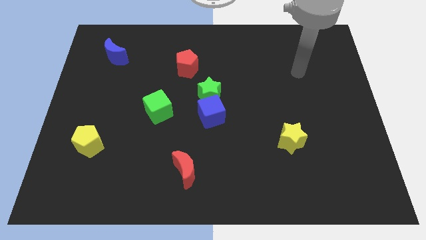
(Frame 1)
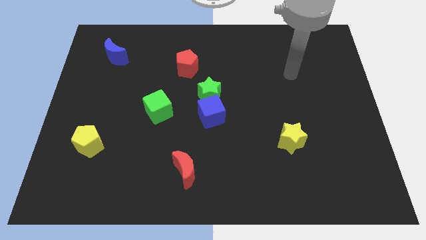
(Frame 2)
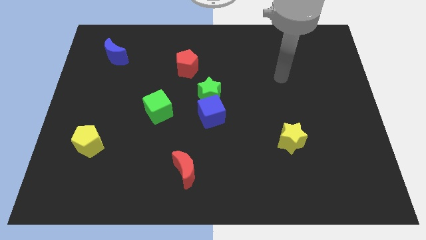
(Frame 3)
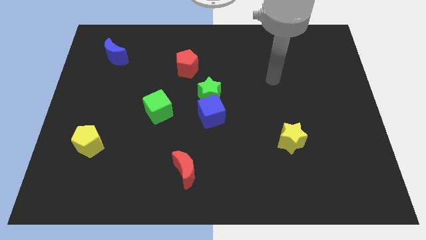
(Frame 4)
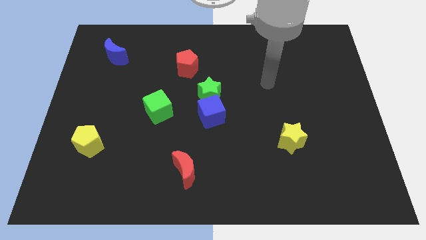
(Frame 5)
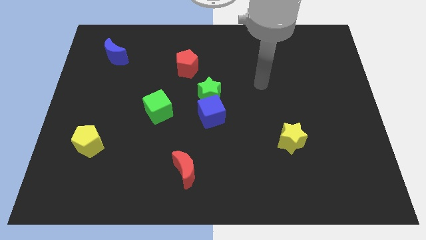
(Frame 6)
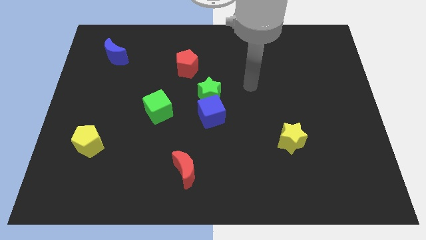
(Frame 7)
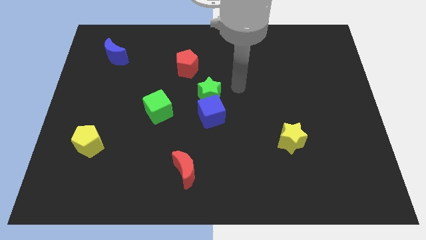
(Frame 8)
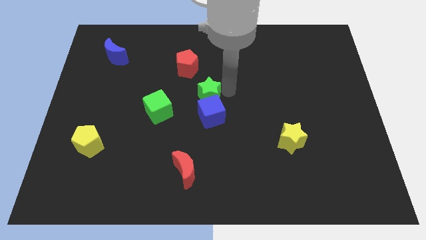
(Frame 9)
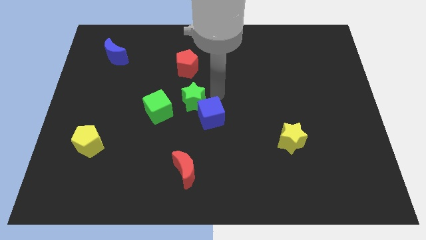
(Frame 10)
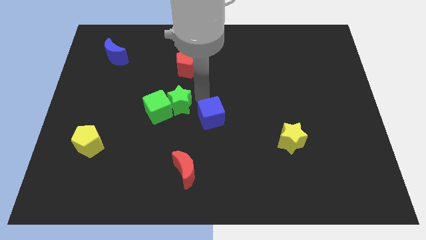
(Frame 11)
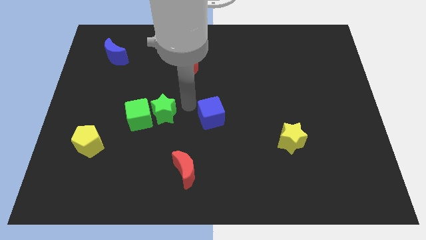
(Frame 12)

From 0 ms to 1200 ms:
separate the blue cube from the green star

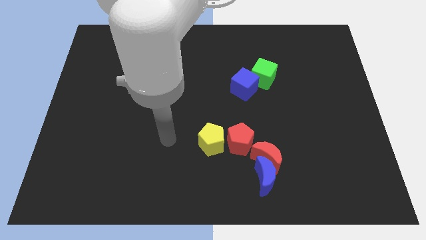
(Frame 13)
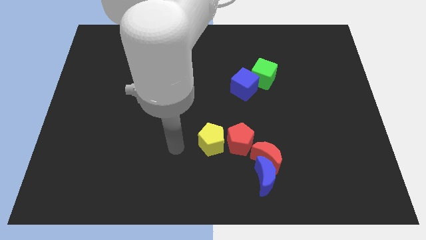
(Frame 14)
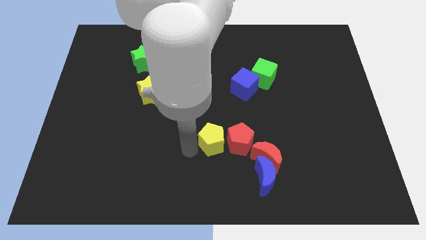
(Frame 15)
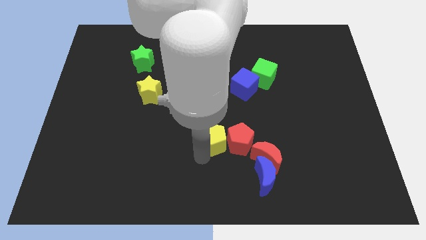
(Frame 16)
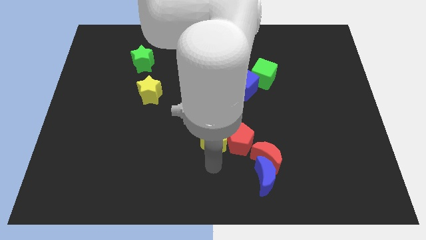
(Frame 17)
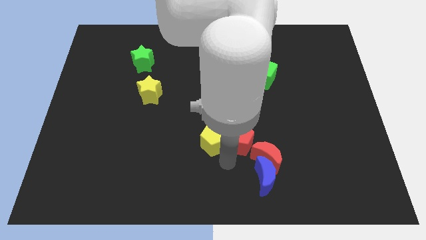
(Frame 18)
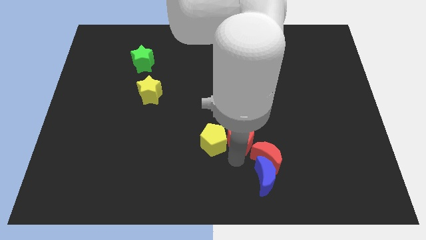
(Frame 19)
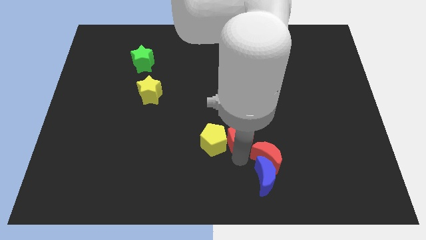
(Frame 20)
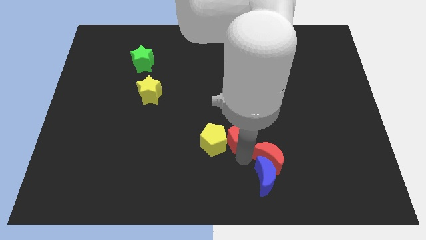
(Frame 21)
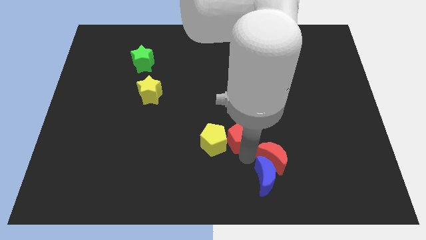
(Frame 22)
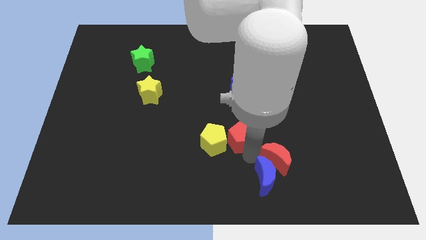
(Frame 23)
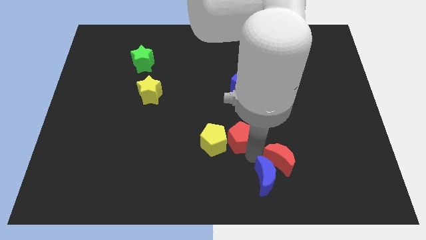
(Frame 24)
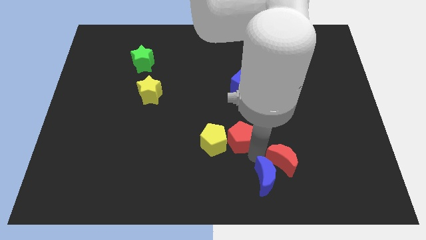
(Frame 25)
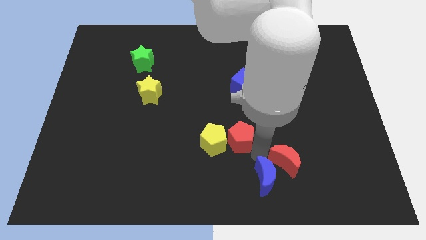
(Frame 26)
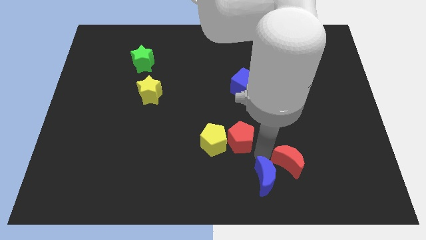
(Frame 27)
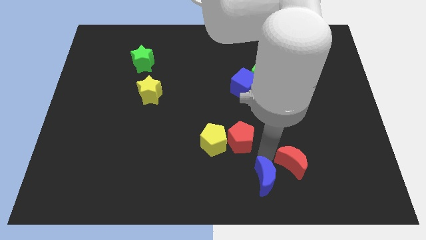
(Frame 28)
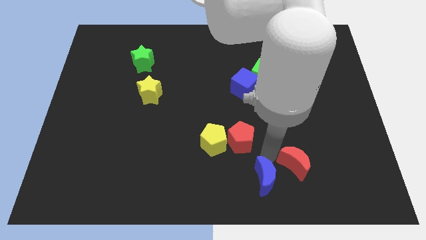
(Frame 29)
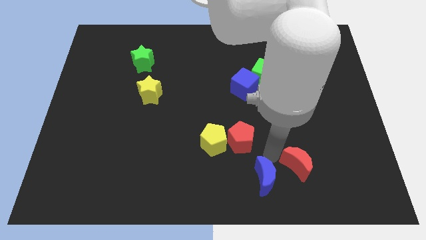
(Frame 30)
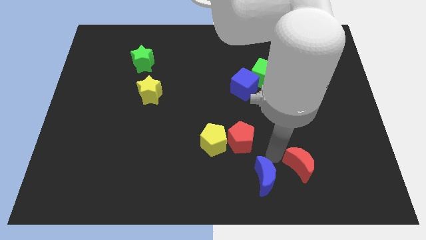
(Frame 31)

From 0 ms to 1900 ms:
separate the red moon from the blue moon and red pentagon

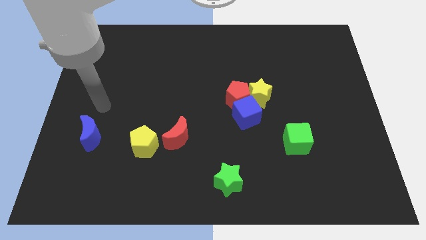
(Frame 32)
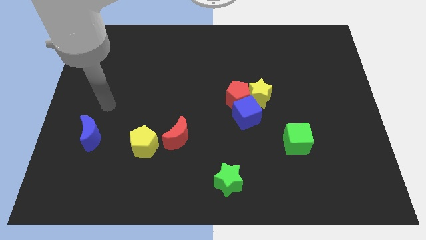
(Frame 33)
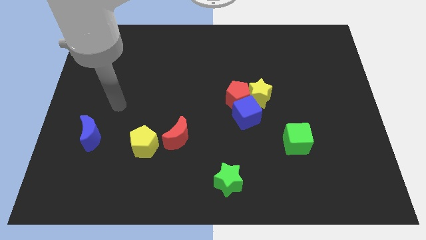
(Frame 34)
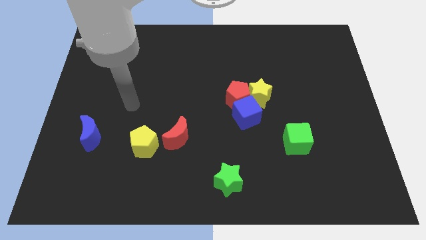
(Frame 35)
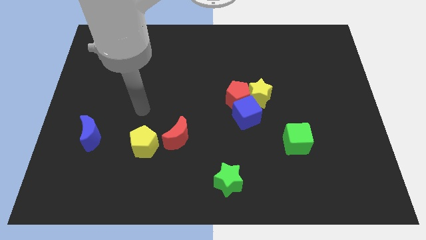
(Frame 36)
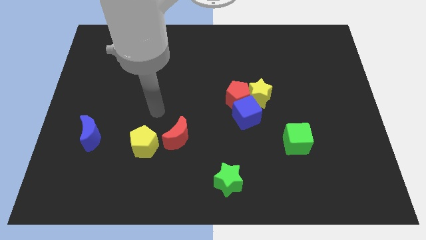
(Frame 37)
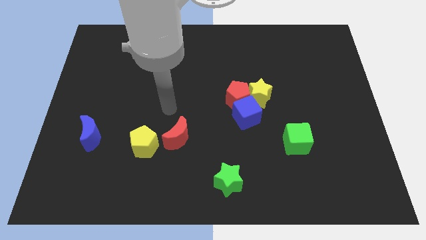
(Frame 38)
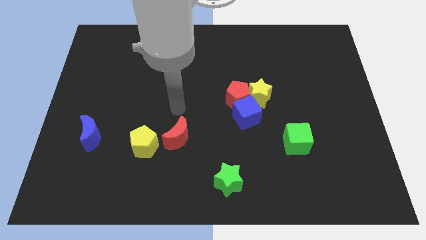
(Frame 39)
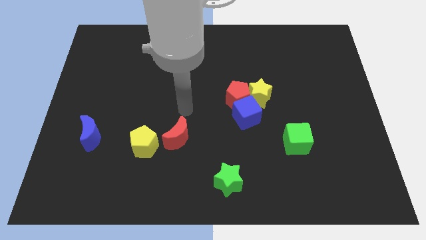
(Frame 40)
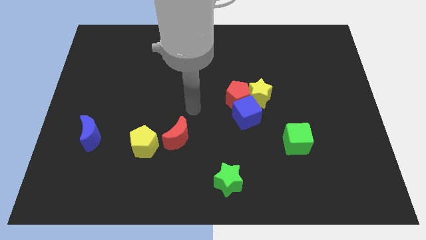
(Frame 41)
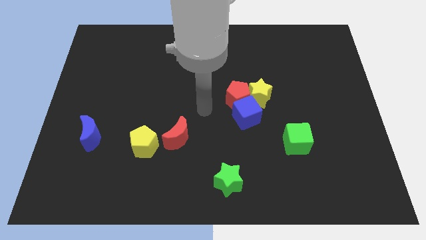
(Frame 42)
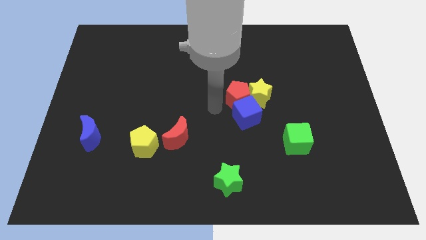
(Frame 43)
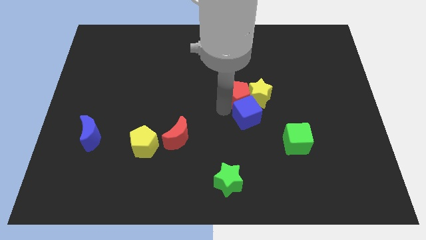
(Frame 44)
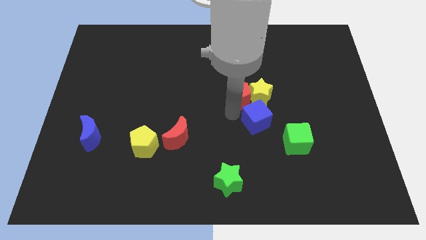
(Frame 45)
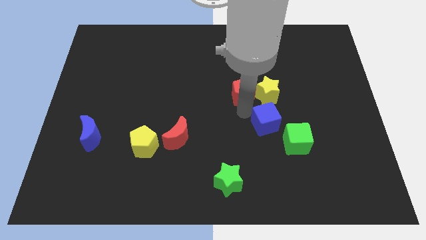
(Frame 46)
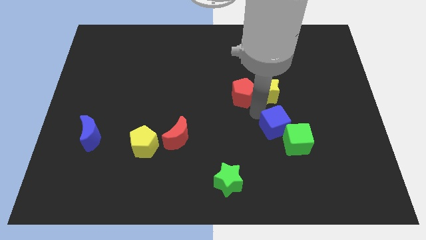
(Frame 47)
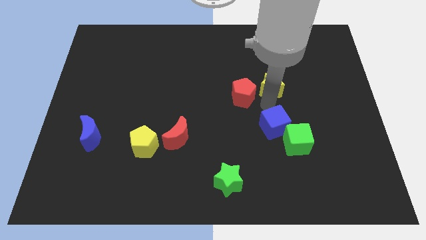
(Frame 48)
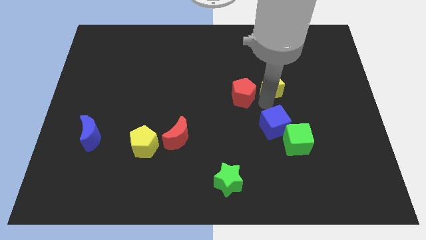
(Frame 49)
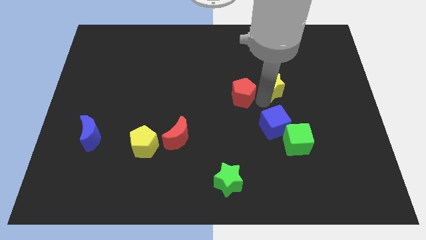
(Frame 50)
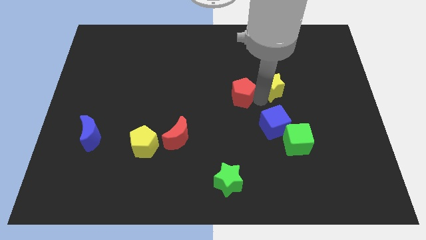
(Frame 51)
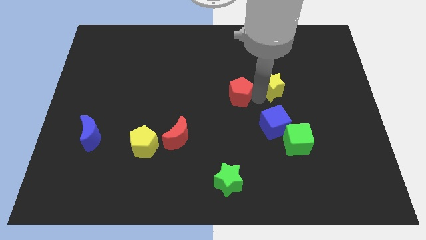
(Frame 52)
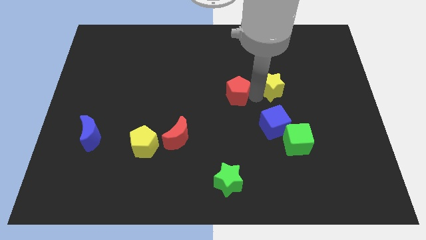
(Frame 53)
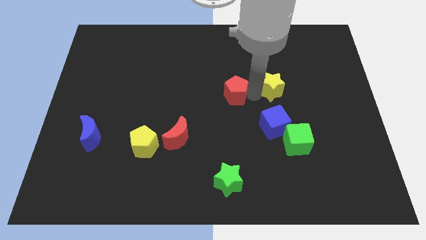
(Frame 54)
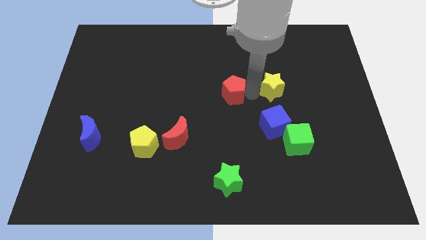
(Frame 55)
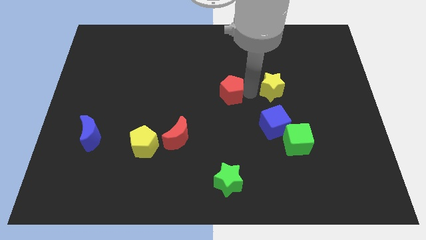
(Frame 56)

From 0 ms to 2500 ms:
move the red pentagon away from the yellow star and blue cube

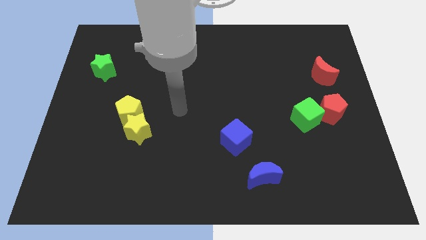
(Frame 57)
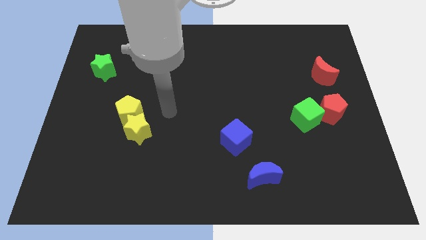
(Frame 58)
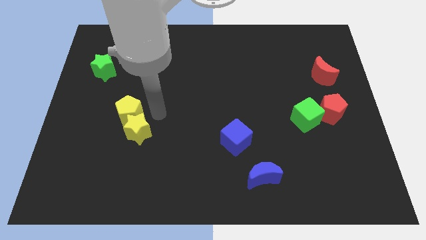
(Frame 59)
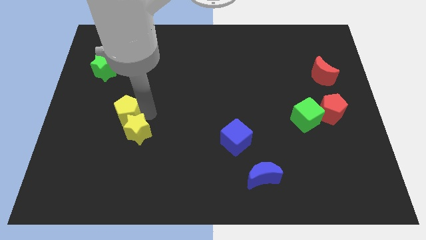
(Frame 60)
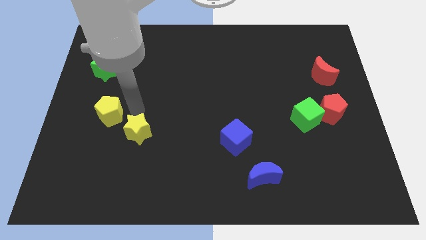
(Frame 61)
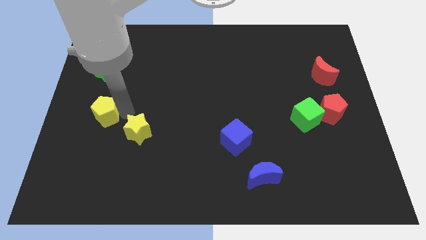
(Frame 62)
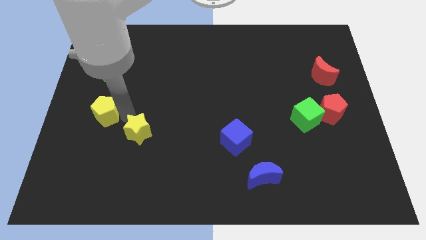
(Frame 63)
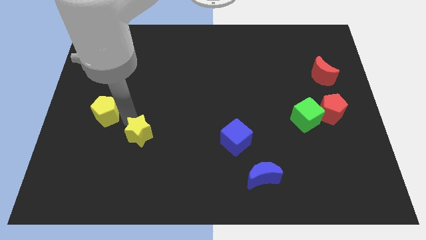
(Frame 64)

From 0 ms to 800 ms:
move the yellow star away from the yellow pentagon

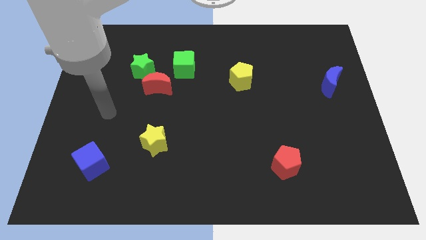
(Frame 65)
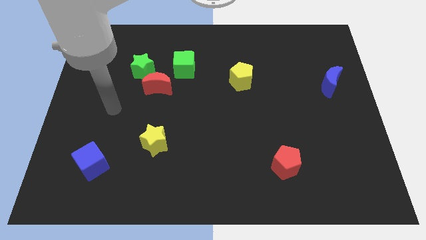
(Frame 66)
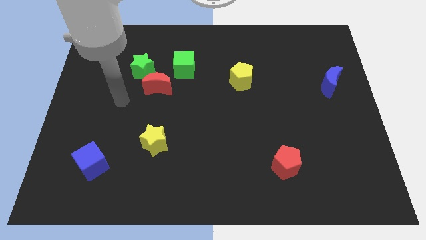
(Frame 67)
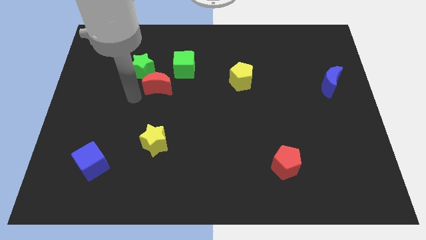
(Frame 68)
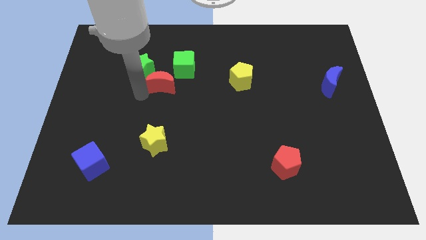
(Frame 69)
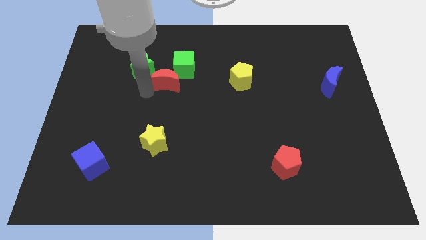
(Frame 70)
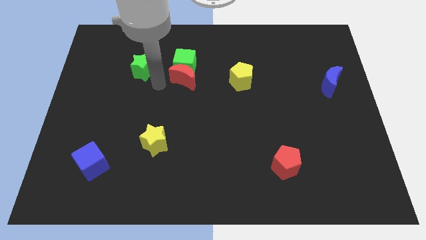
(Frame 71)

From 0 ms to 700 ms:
separate the green star from the red moon

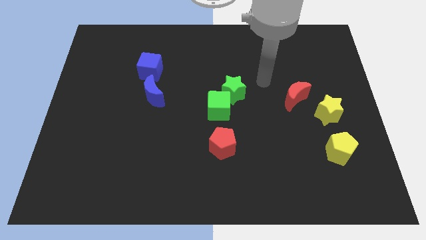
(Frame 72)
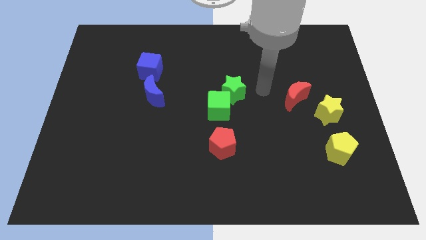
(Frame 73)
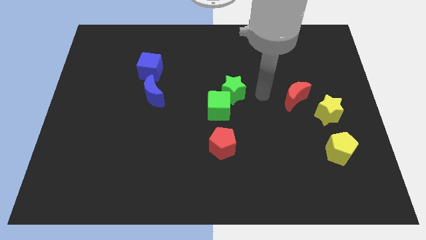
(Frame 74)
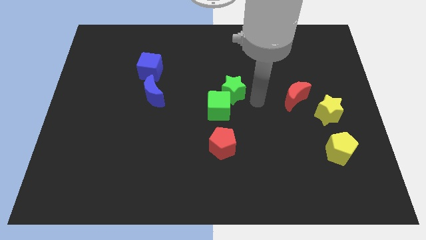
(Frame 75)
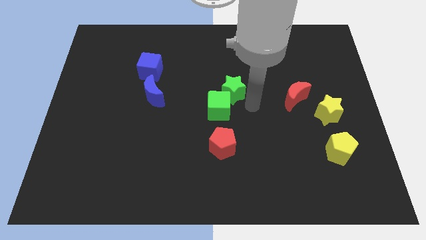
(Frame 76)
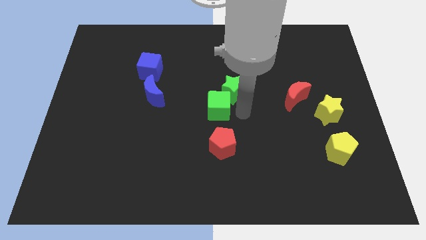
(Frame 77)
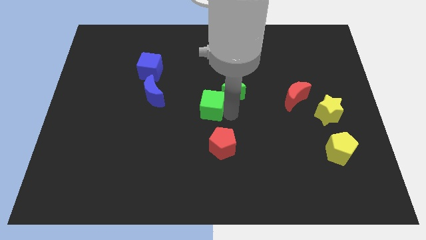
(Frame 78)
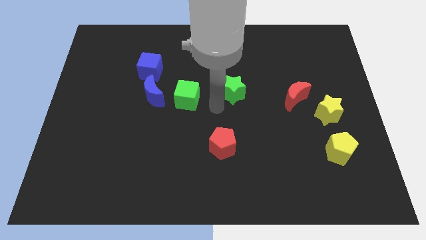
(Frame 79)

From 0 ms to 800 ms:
separate the green star from the green cube

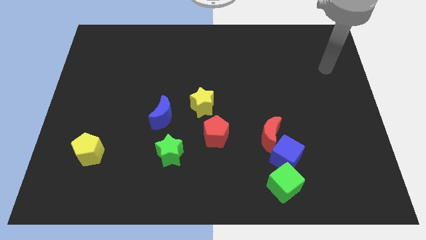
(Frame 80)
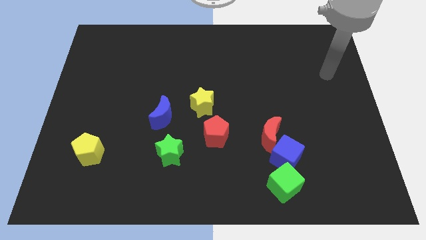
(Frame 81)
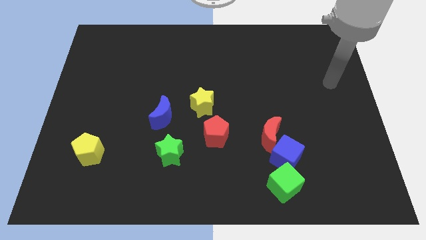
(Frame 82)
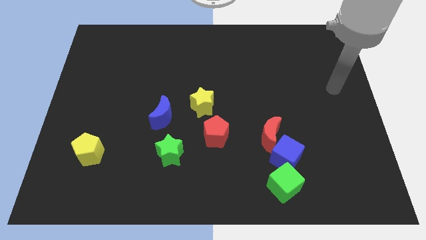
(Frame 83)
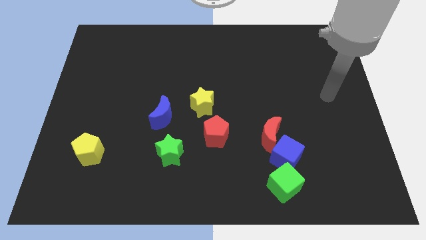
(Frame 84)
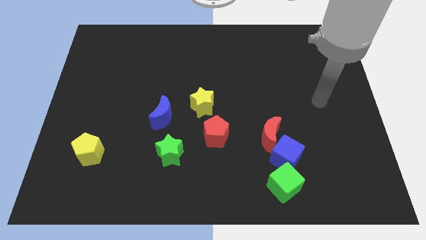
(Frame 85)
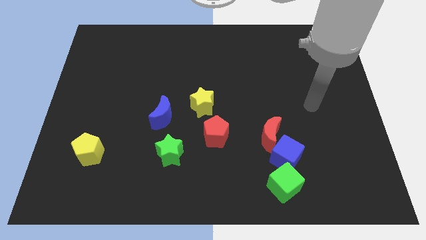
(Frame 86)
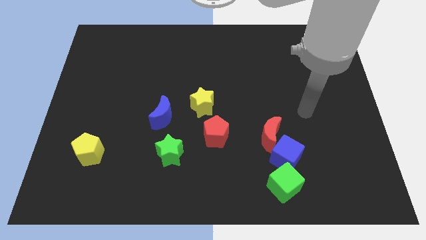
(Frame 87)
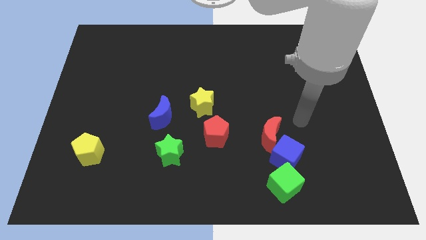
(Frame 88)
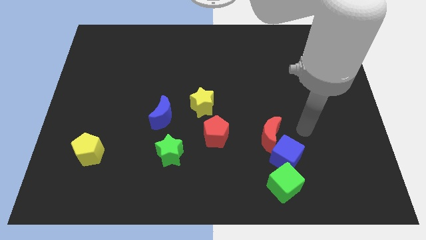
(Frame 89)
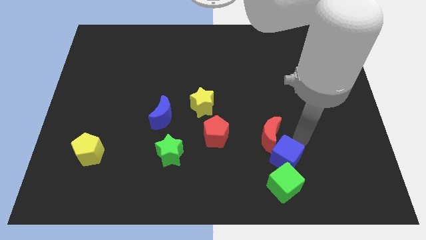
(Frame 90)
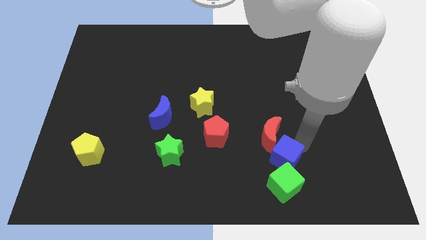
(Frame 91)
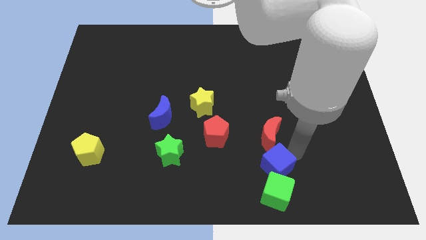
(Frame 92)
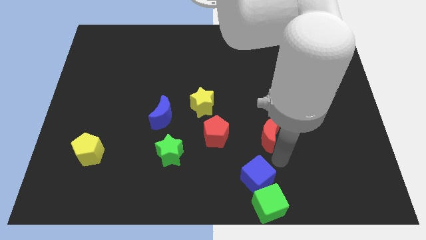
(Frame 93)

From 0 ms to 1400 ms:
pull the red moon apart from the blue cube
